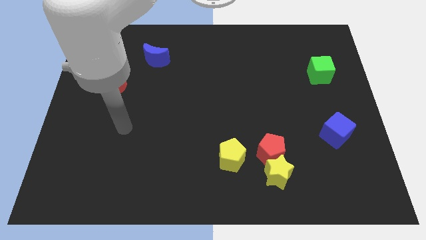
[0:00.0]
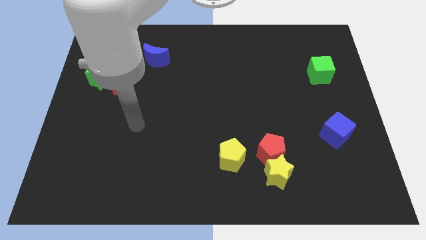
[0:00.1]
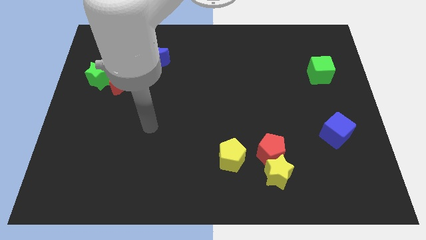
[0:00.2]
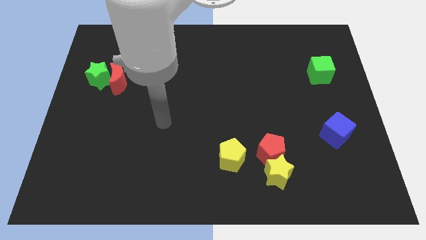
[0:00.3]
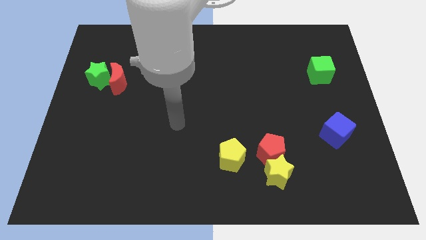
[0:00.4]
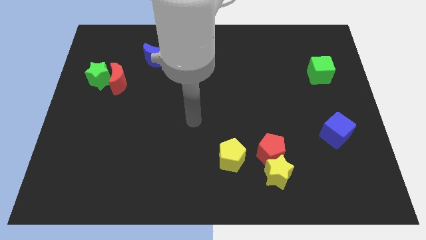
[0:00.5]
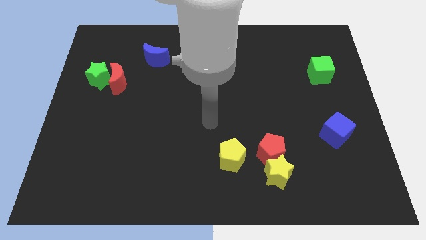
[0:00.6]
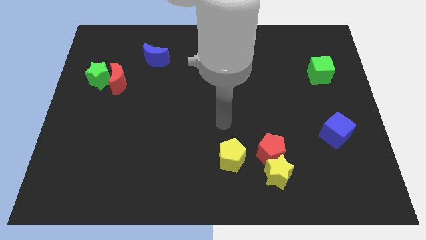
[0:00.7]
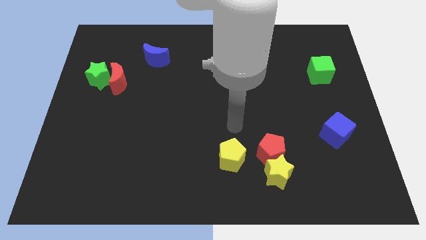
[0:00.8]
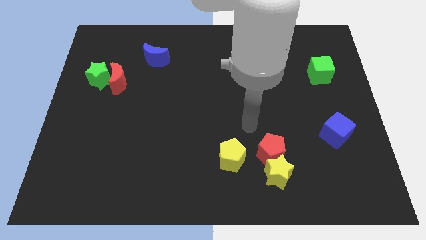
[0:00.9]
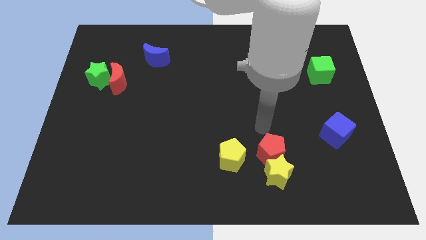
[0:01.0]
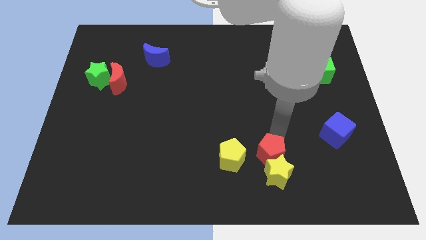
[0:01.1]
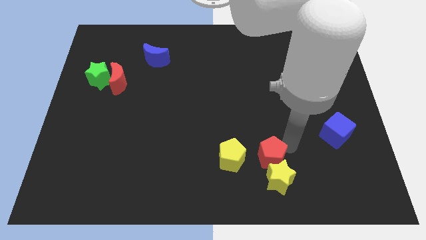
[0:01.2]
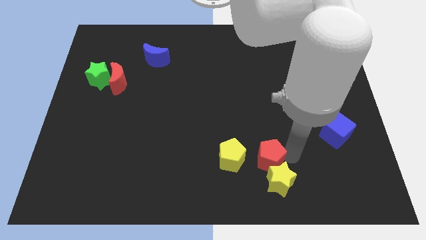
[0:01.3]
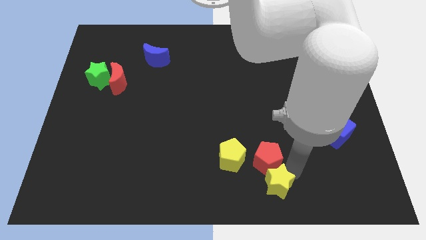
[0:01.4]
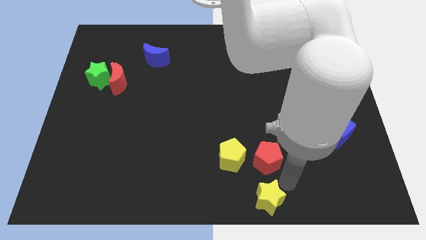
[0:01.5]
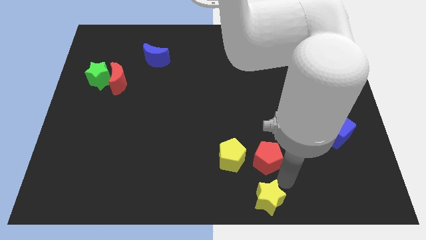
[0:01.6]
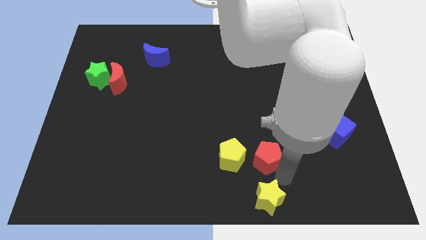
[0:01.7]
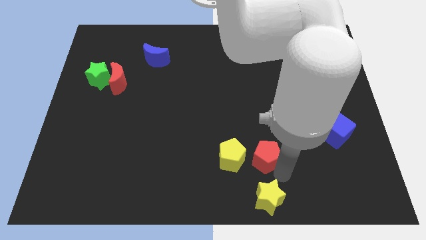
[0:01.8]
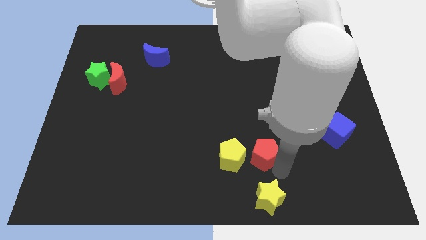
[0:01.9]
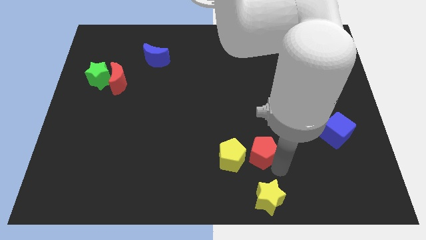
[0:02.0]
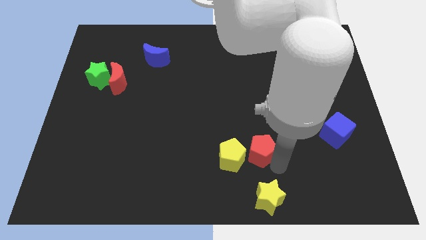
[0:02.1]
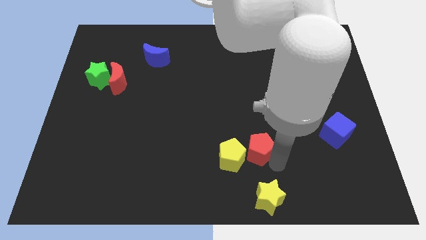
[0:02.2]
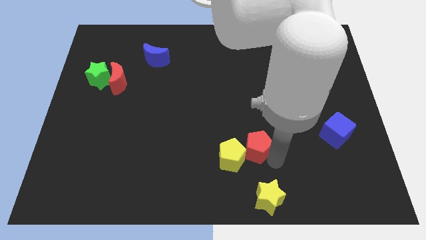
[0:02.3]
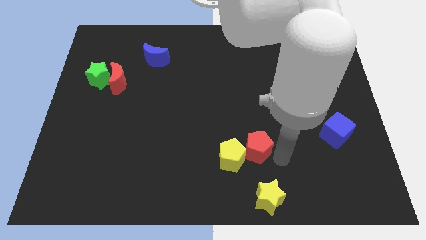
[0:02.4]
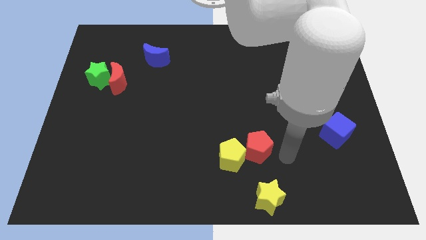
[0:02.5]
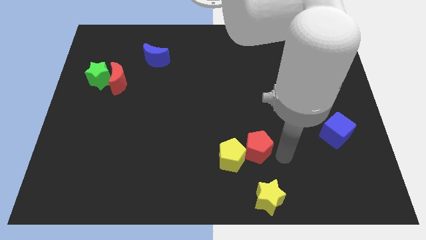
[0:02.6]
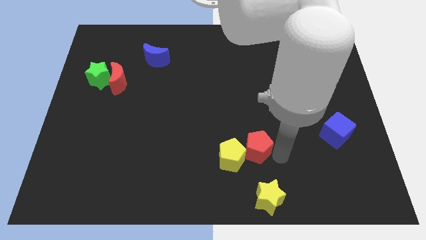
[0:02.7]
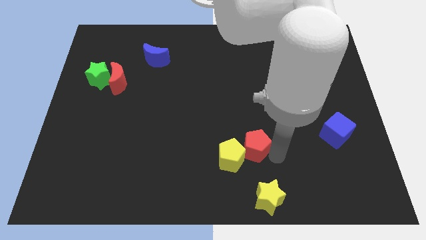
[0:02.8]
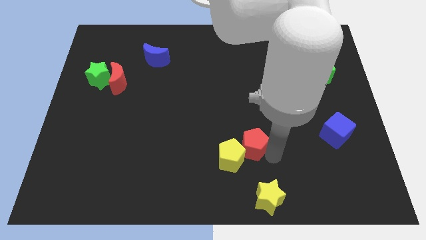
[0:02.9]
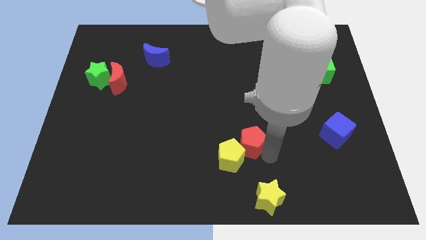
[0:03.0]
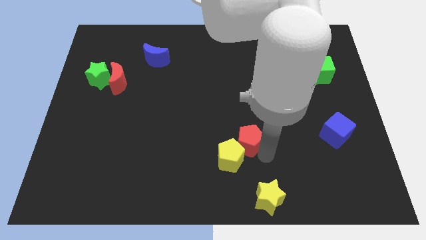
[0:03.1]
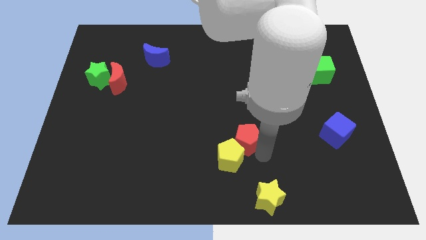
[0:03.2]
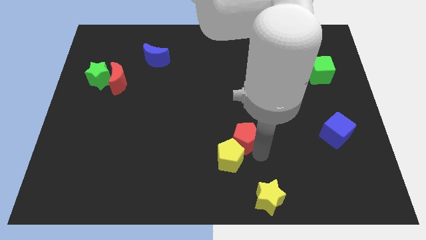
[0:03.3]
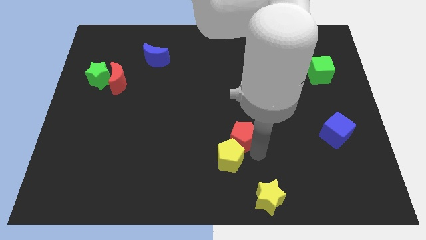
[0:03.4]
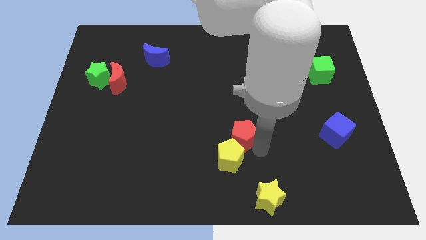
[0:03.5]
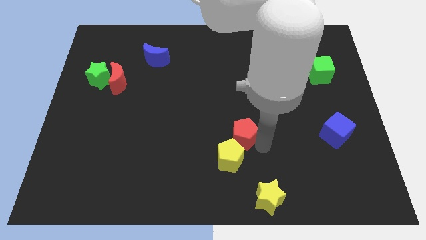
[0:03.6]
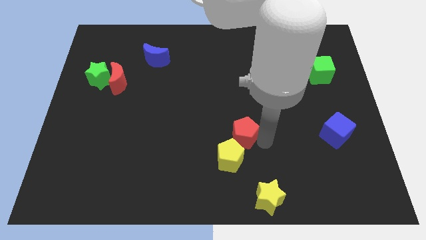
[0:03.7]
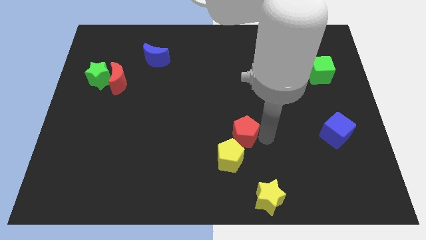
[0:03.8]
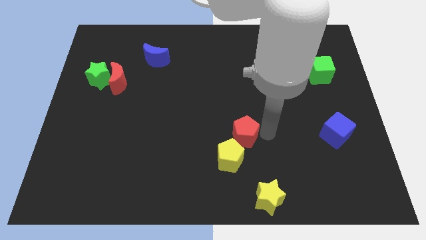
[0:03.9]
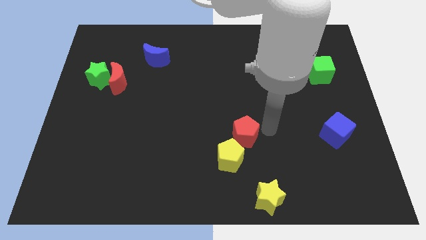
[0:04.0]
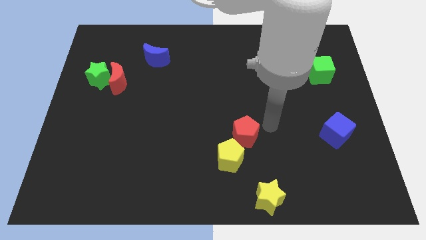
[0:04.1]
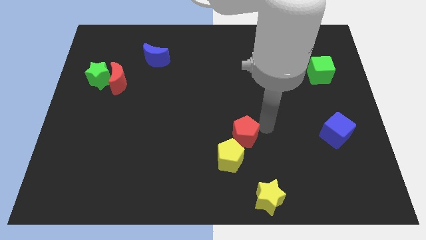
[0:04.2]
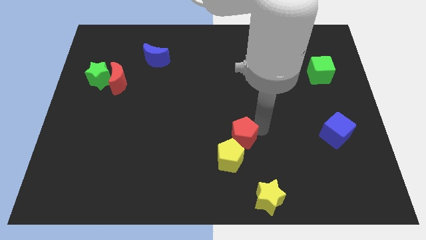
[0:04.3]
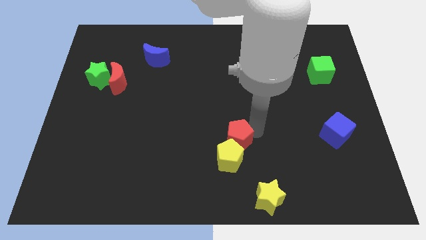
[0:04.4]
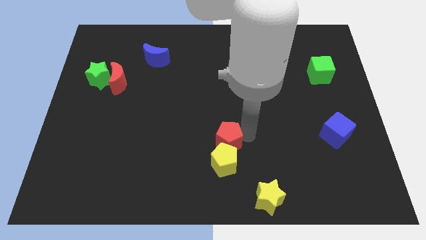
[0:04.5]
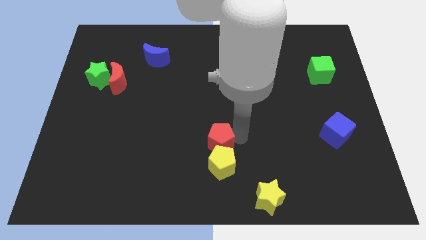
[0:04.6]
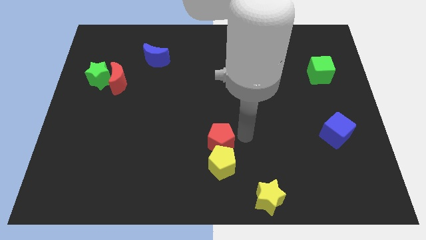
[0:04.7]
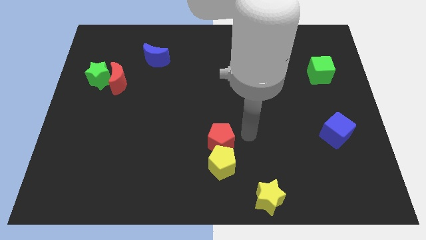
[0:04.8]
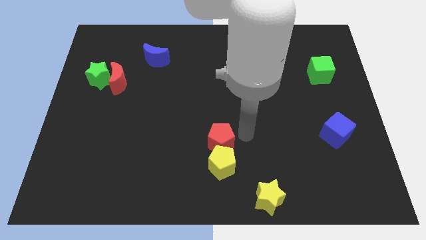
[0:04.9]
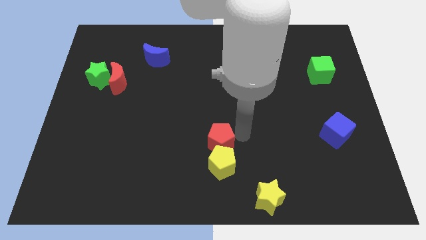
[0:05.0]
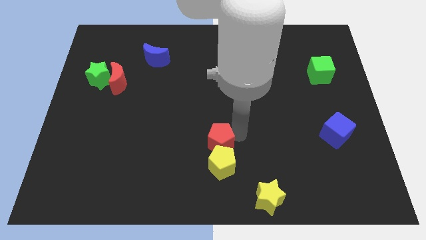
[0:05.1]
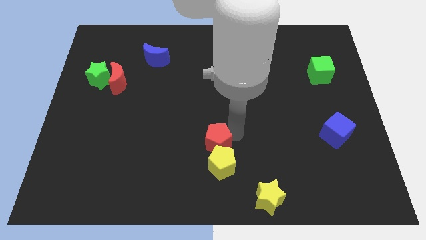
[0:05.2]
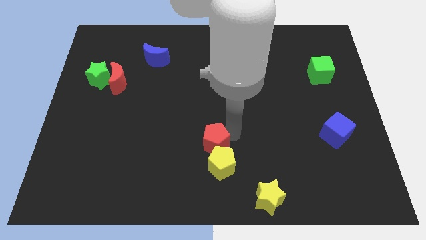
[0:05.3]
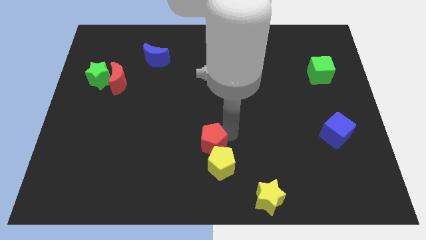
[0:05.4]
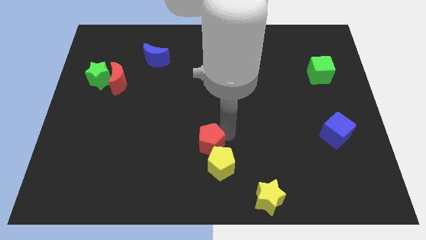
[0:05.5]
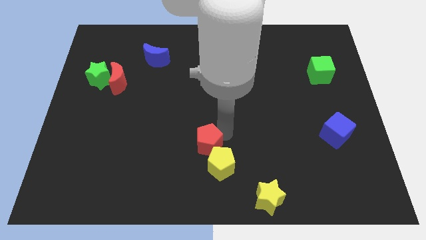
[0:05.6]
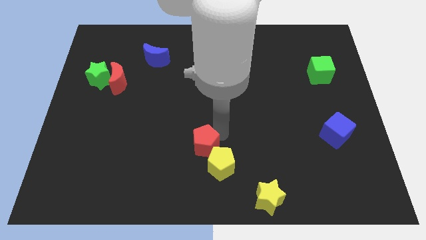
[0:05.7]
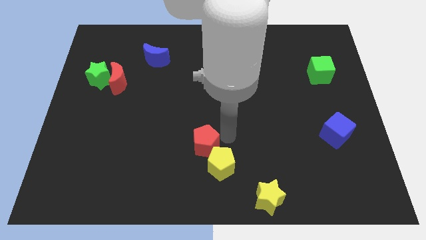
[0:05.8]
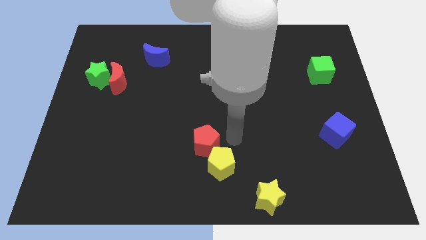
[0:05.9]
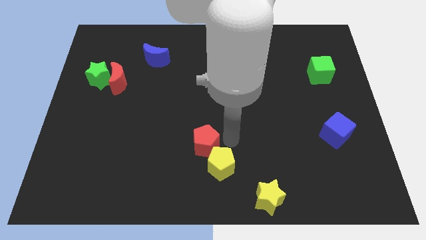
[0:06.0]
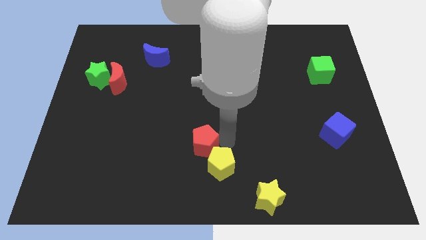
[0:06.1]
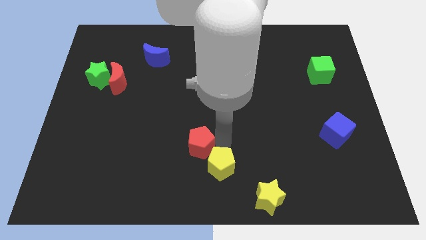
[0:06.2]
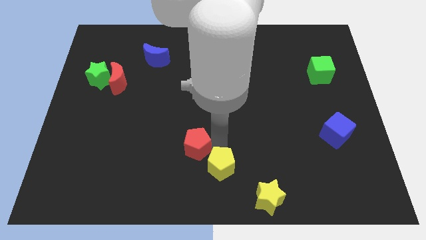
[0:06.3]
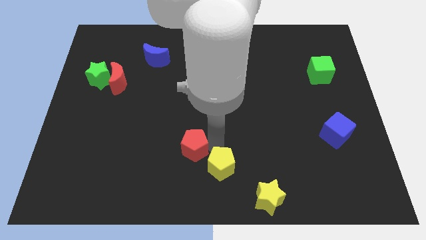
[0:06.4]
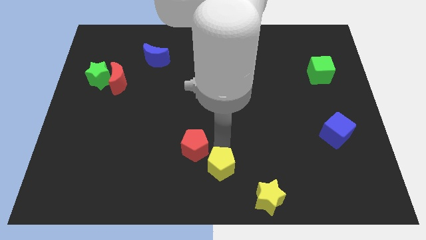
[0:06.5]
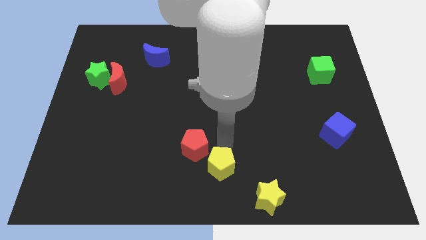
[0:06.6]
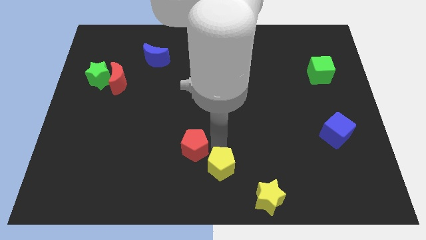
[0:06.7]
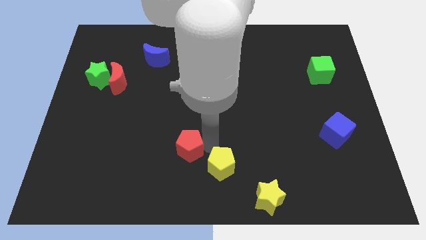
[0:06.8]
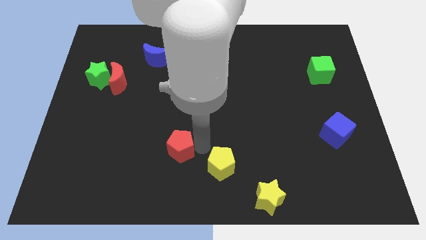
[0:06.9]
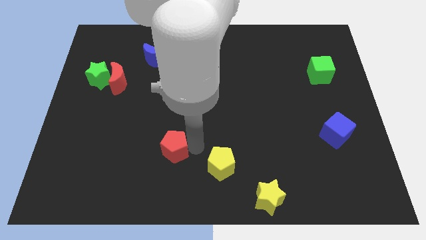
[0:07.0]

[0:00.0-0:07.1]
slide the red pentagon left

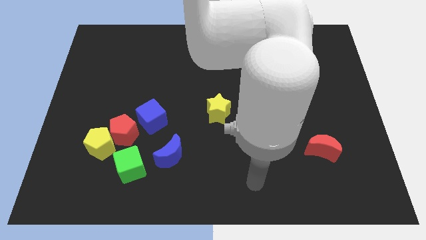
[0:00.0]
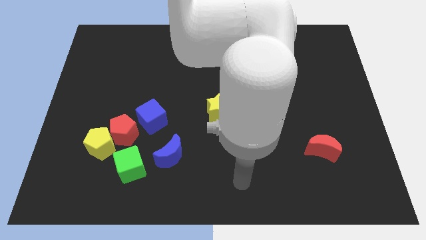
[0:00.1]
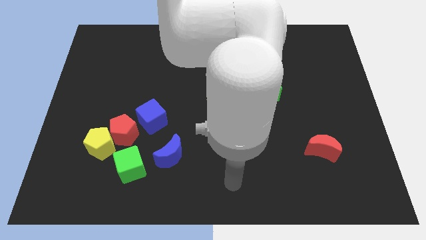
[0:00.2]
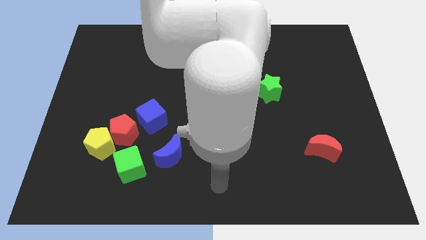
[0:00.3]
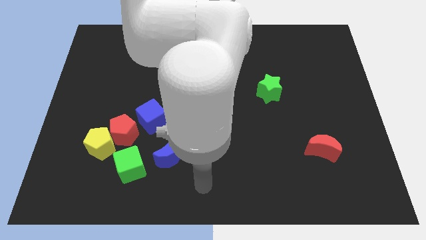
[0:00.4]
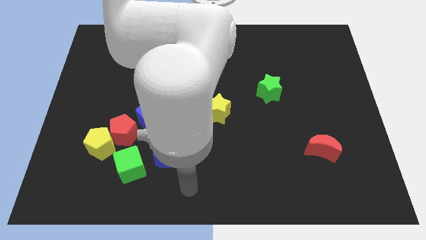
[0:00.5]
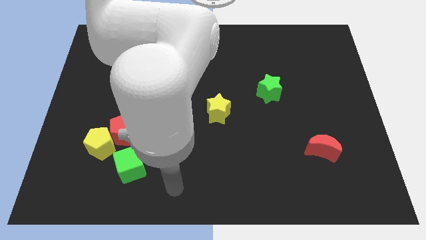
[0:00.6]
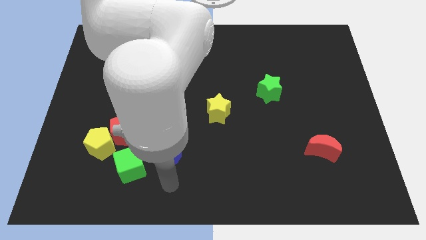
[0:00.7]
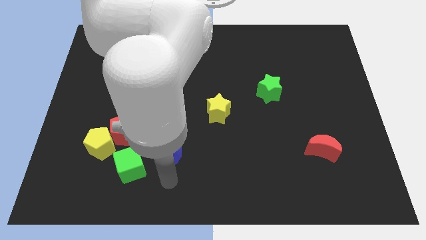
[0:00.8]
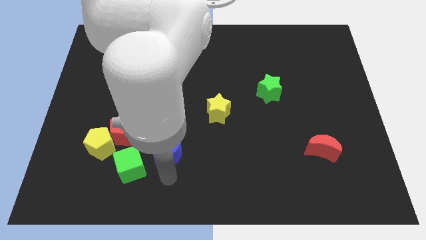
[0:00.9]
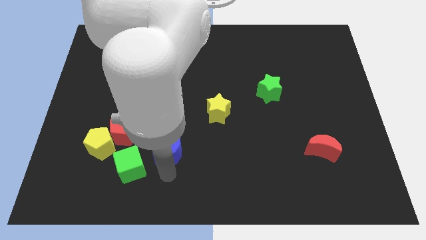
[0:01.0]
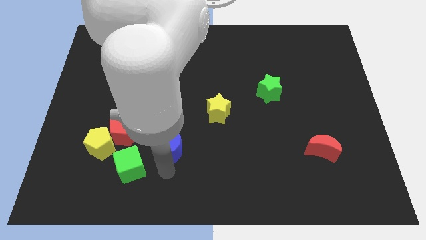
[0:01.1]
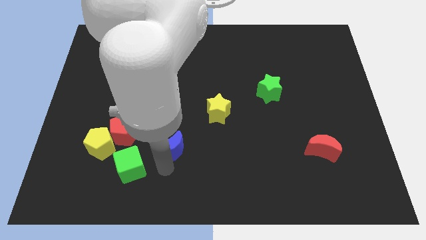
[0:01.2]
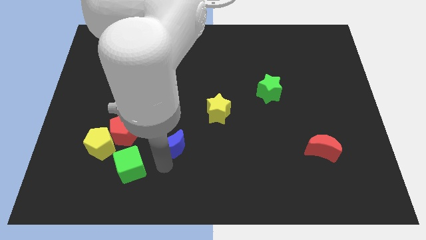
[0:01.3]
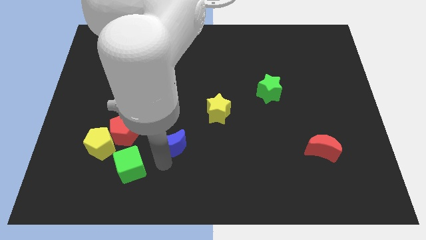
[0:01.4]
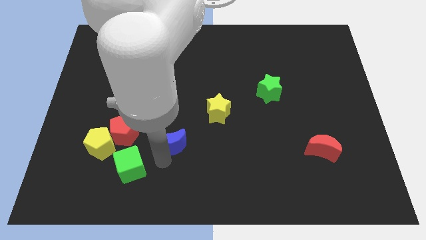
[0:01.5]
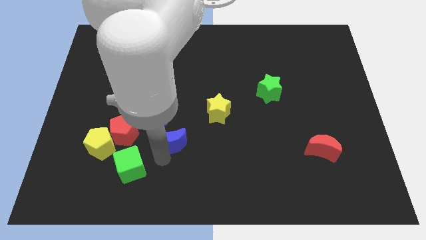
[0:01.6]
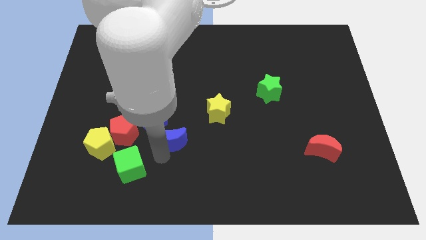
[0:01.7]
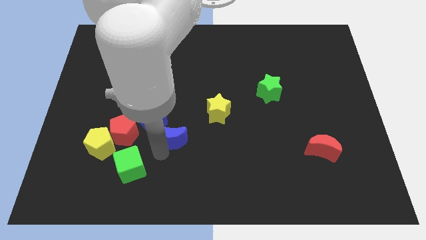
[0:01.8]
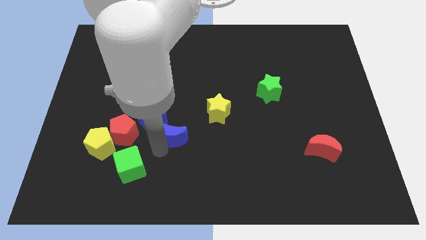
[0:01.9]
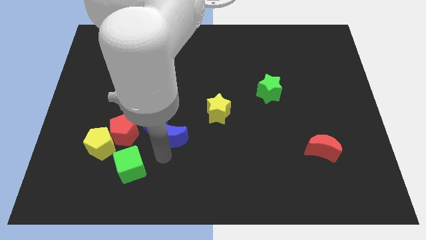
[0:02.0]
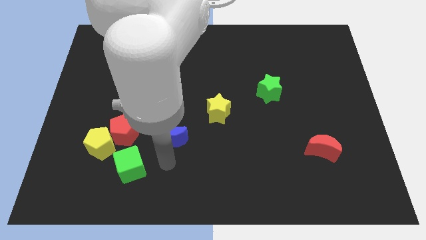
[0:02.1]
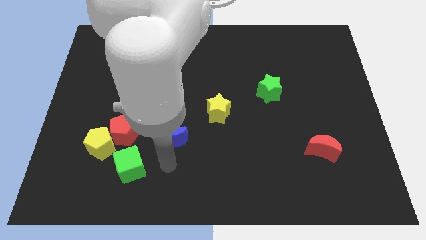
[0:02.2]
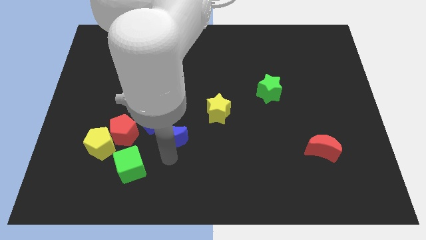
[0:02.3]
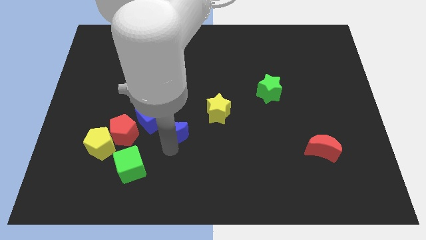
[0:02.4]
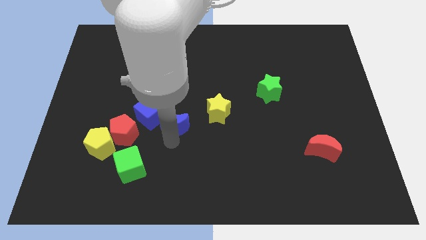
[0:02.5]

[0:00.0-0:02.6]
slightly slide the blue moon up
